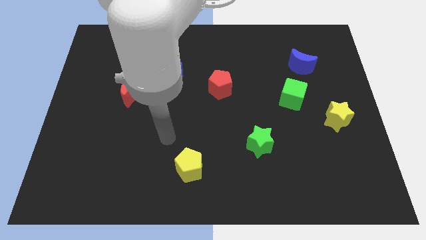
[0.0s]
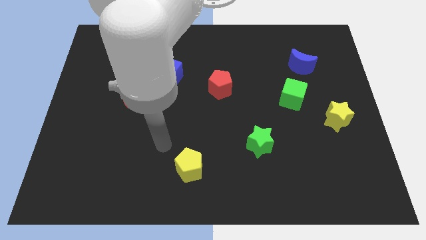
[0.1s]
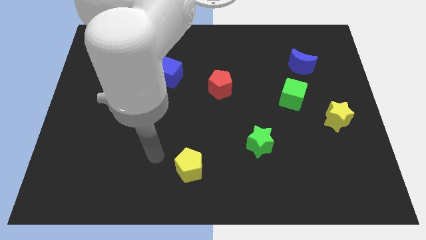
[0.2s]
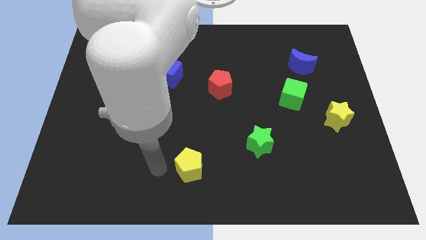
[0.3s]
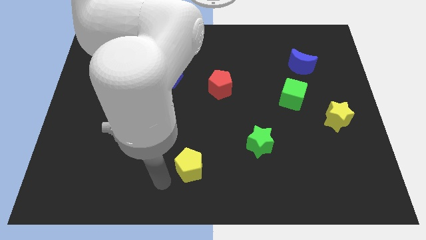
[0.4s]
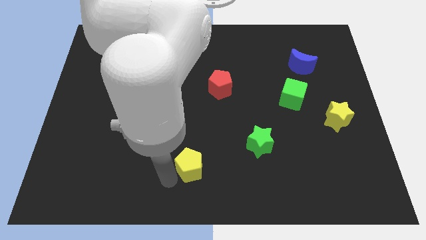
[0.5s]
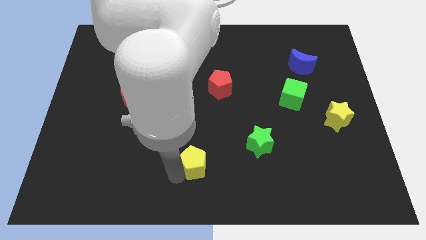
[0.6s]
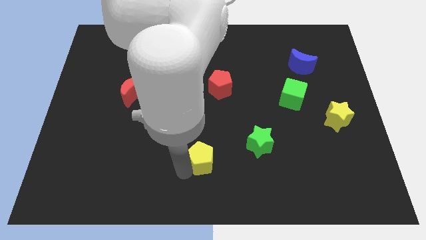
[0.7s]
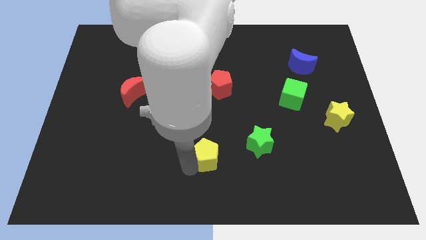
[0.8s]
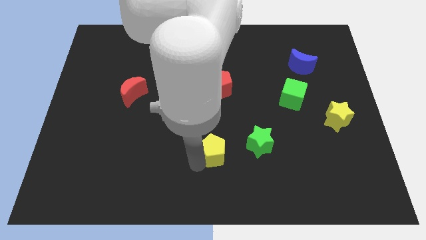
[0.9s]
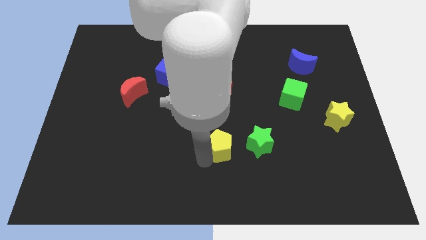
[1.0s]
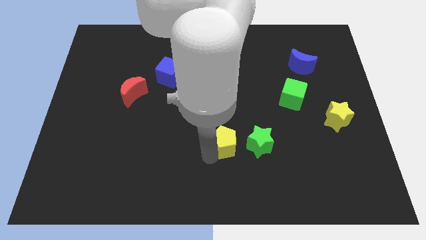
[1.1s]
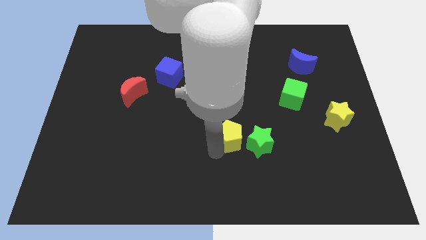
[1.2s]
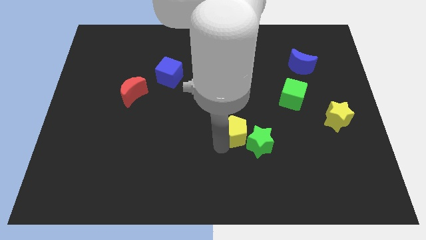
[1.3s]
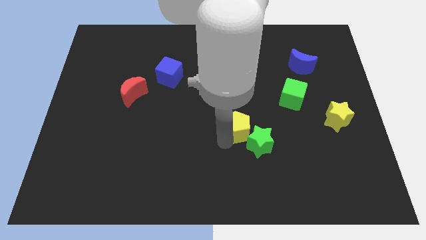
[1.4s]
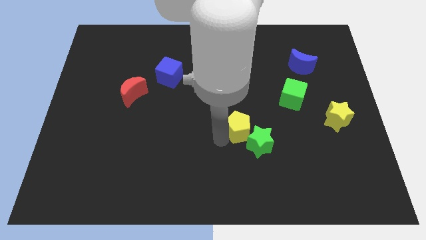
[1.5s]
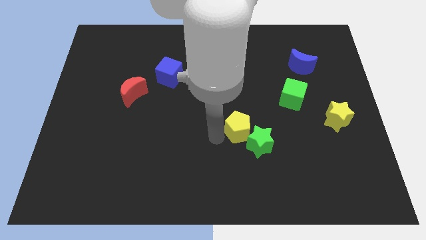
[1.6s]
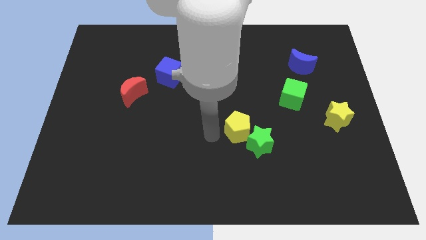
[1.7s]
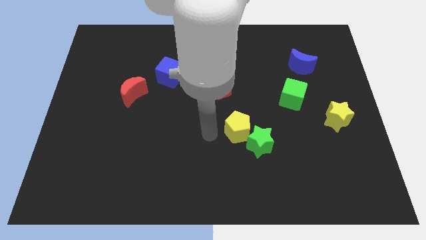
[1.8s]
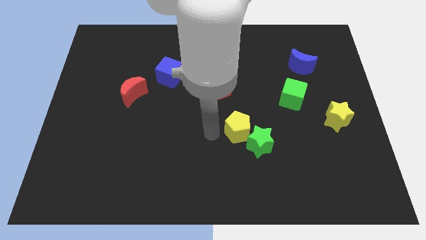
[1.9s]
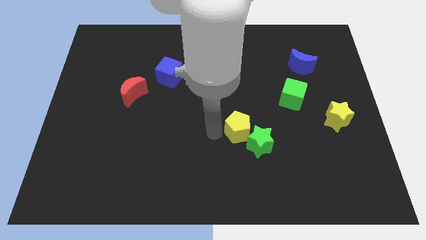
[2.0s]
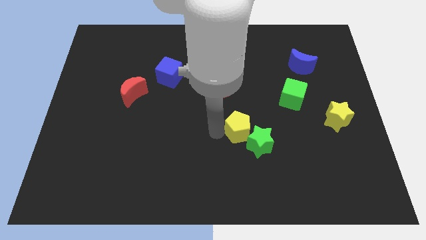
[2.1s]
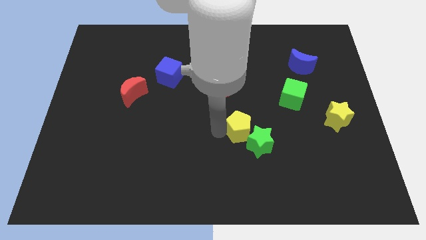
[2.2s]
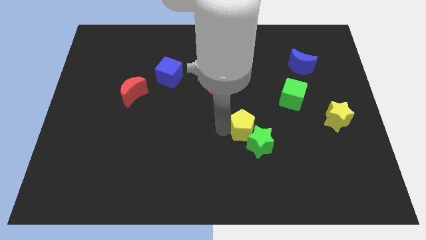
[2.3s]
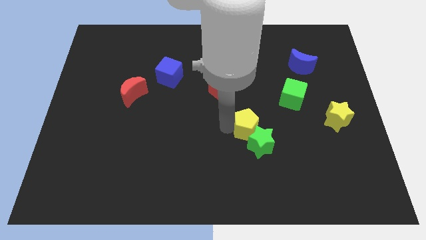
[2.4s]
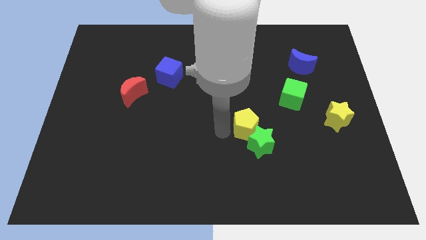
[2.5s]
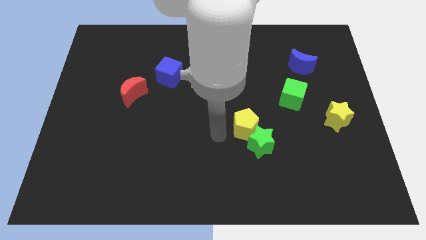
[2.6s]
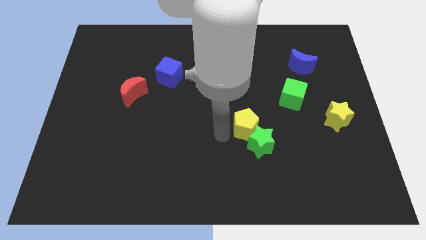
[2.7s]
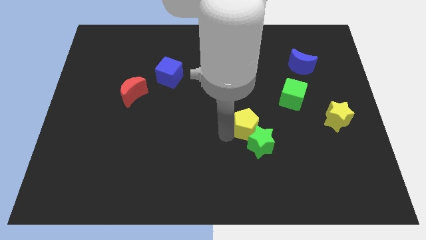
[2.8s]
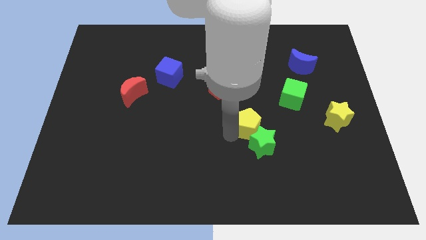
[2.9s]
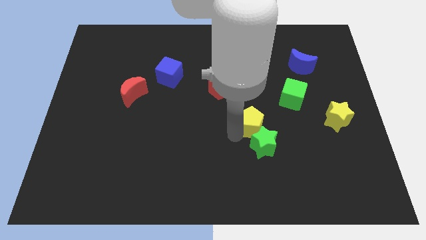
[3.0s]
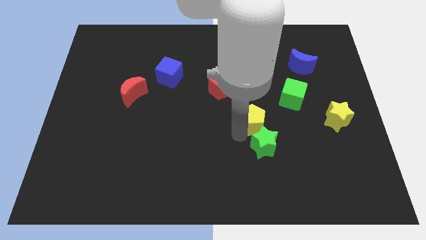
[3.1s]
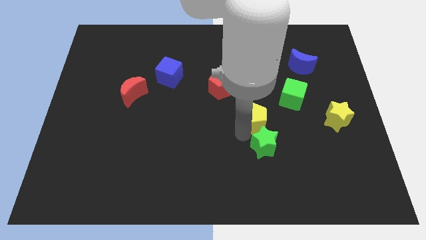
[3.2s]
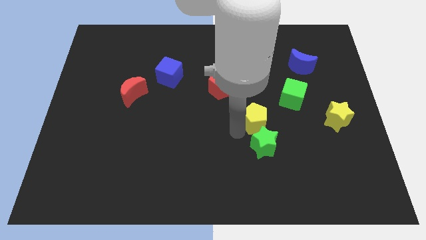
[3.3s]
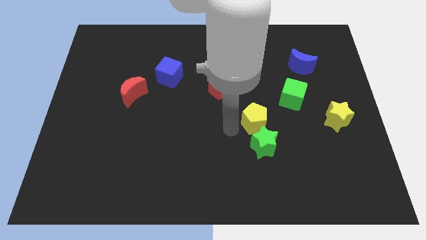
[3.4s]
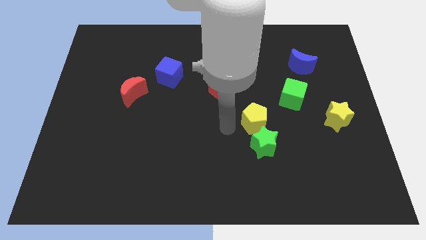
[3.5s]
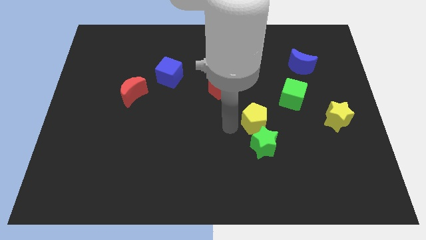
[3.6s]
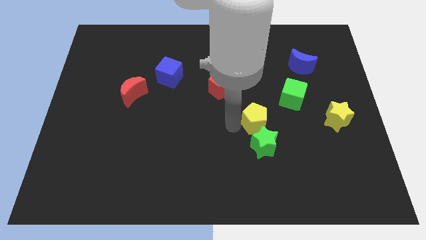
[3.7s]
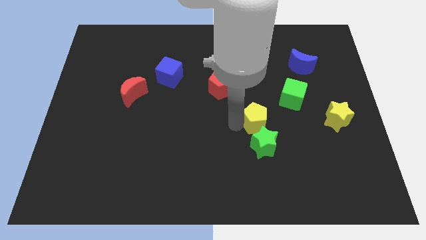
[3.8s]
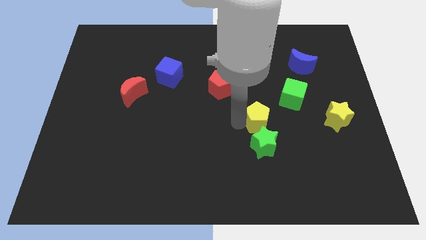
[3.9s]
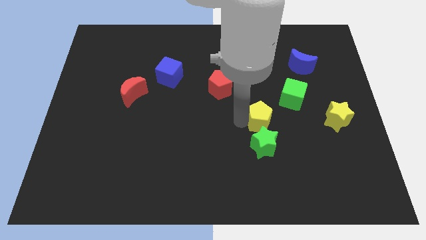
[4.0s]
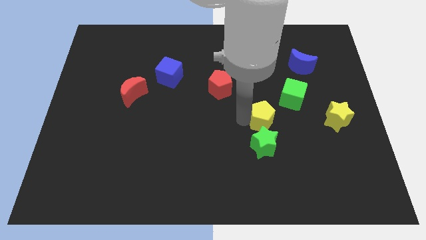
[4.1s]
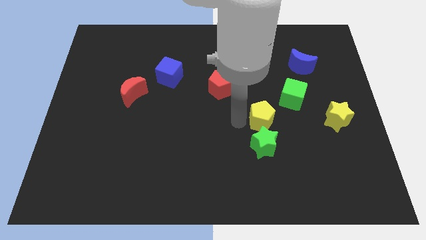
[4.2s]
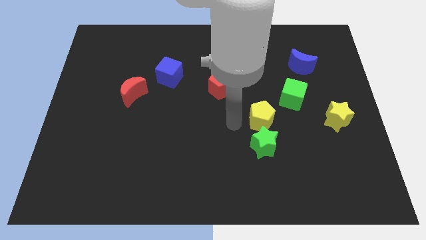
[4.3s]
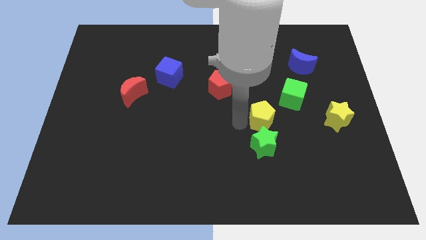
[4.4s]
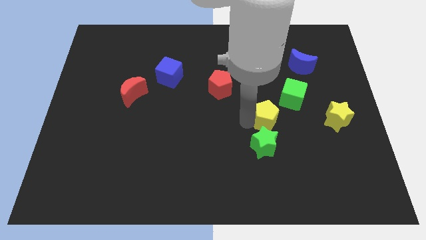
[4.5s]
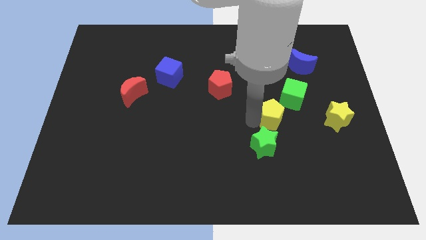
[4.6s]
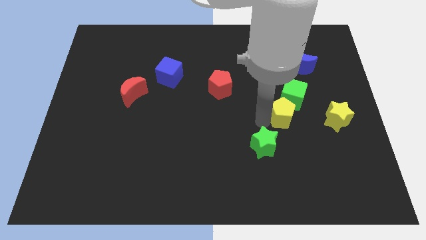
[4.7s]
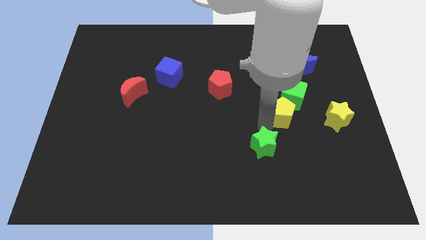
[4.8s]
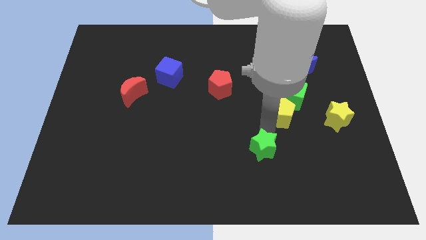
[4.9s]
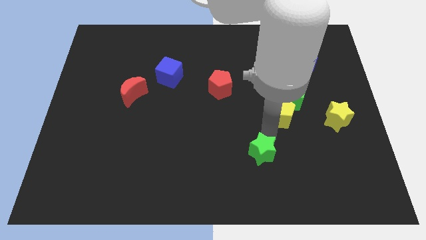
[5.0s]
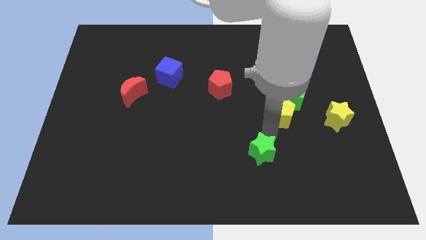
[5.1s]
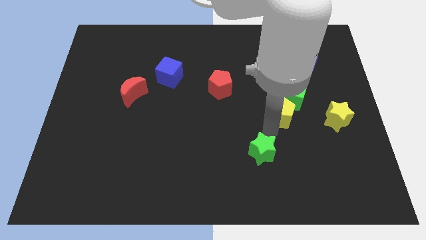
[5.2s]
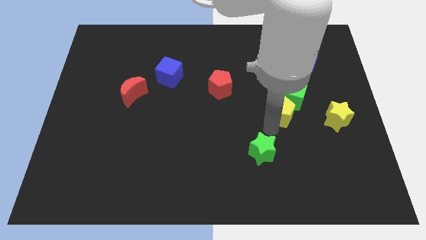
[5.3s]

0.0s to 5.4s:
put the yellow pentagon next to the green cube

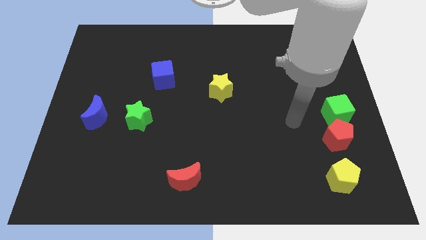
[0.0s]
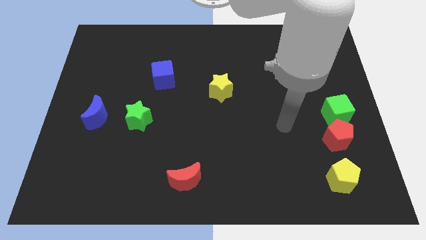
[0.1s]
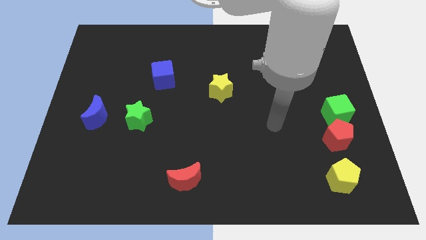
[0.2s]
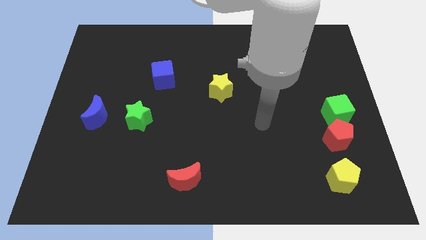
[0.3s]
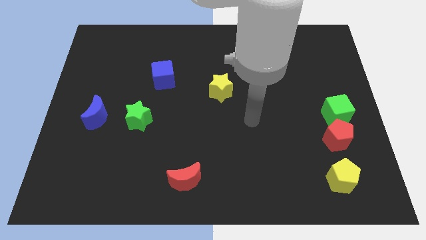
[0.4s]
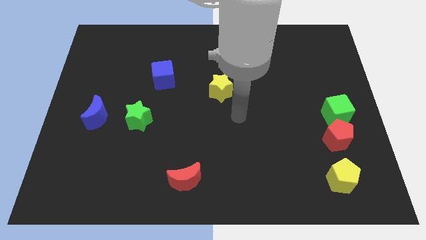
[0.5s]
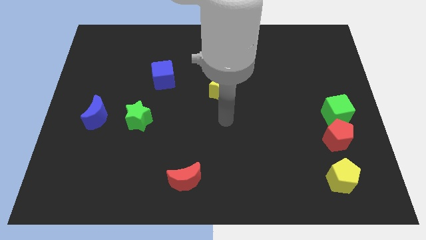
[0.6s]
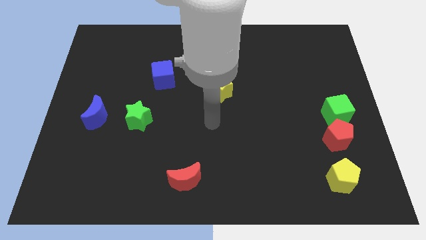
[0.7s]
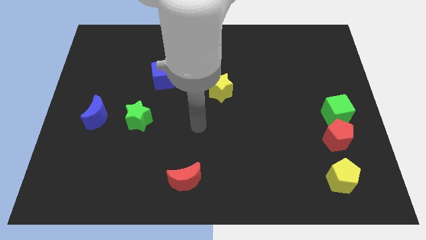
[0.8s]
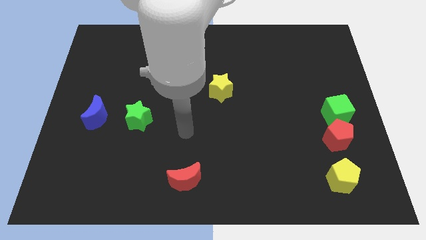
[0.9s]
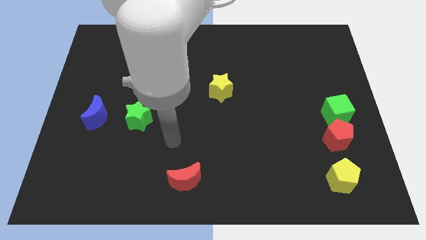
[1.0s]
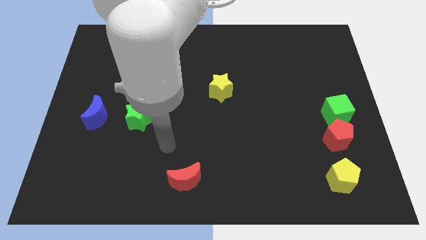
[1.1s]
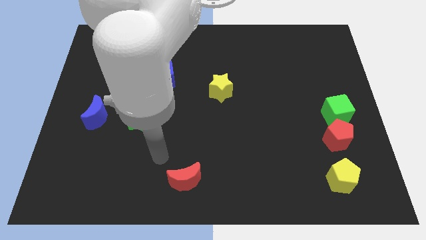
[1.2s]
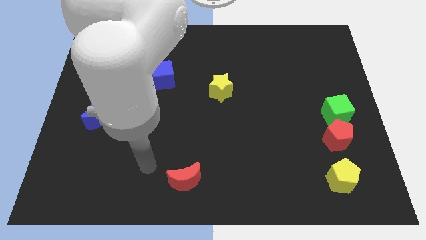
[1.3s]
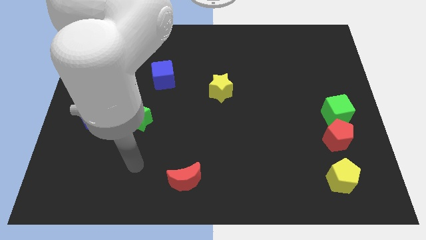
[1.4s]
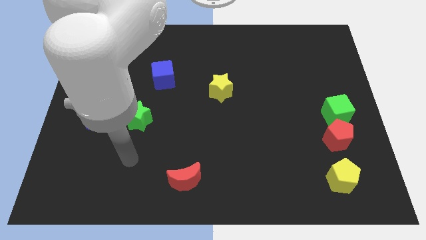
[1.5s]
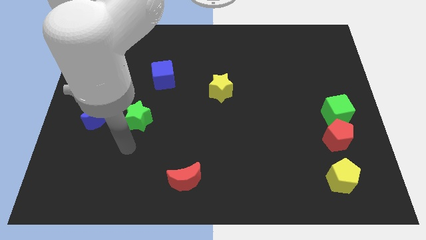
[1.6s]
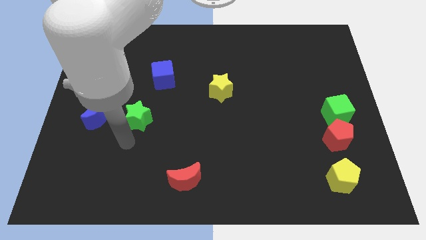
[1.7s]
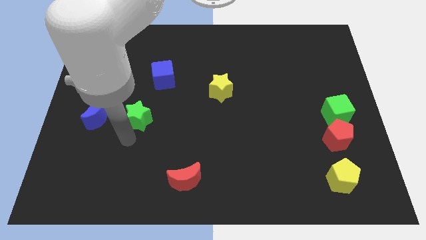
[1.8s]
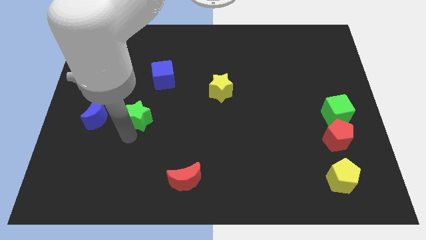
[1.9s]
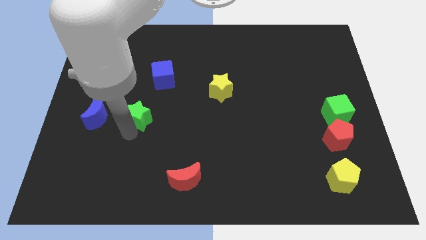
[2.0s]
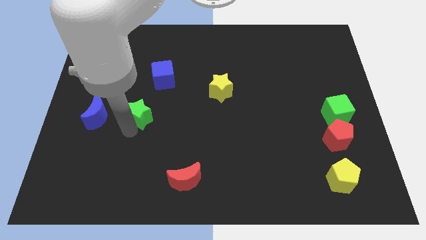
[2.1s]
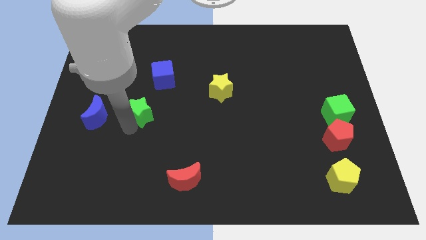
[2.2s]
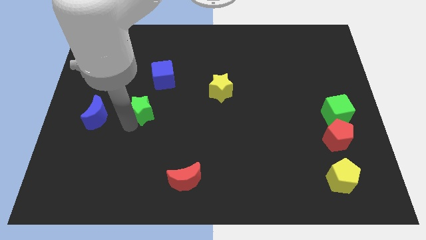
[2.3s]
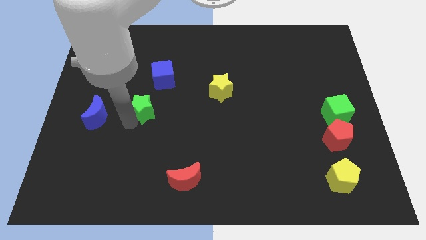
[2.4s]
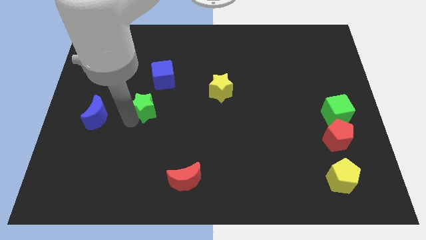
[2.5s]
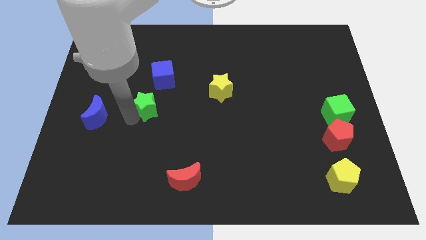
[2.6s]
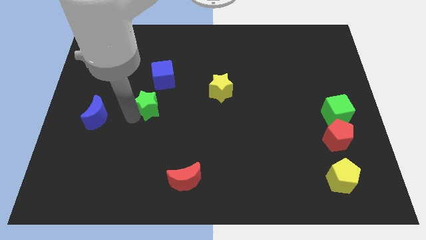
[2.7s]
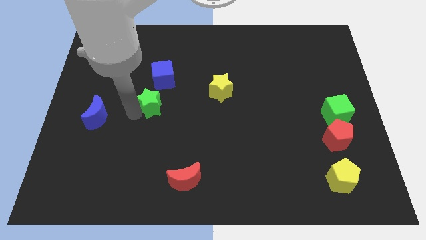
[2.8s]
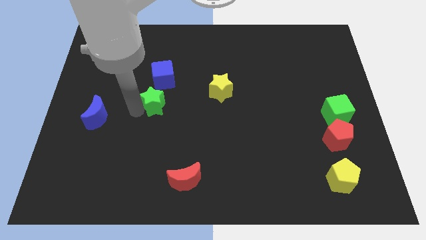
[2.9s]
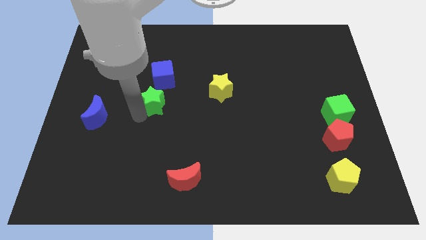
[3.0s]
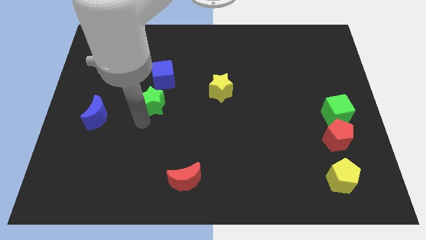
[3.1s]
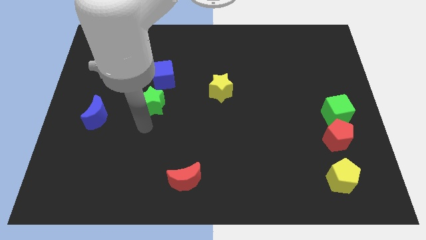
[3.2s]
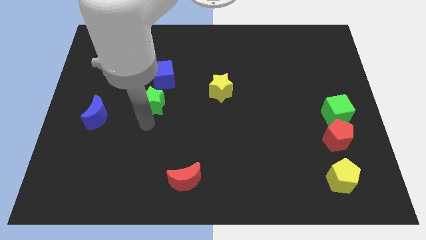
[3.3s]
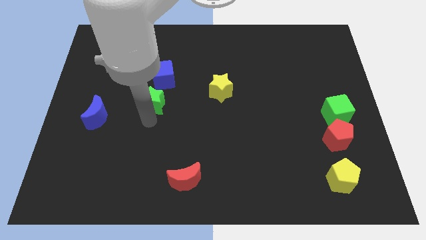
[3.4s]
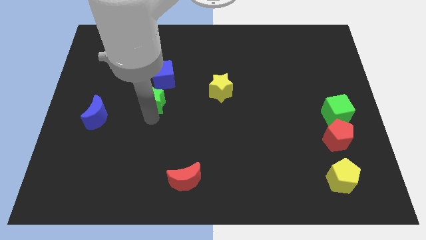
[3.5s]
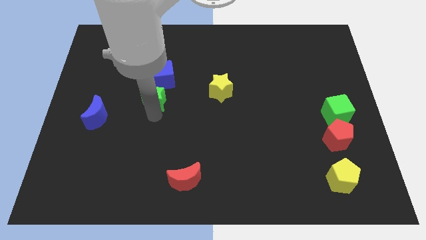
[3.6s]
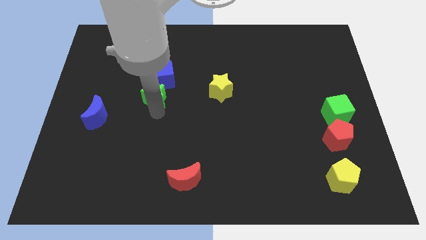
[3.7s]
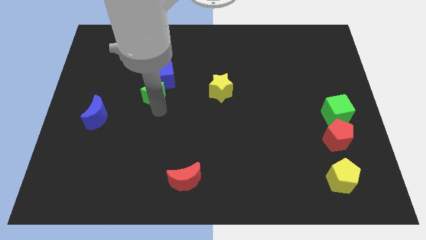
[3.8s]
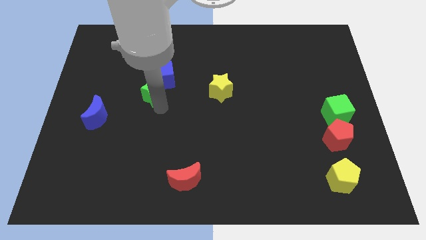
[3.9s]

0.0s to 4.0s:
slide the green star towards the blue cube
